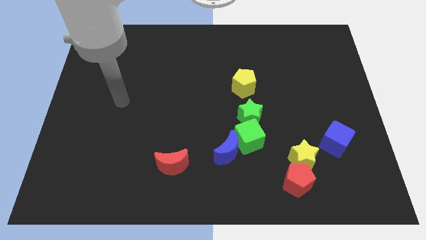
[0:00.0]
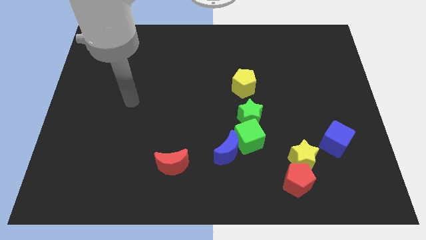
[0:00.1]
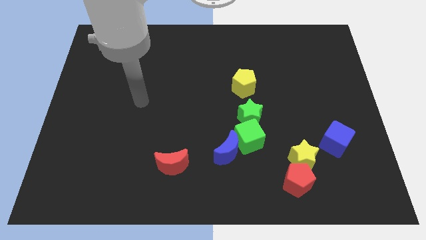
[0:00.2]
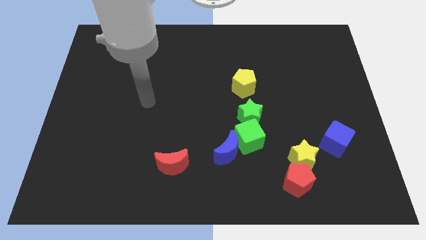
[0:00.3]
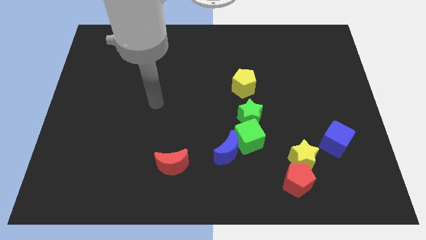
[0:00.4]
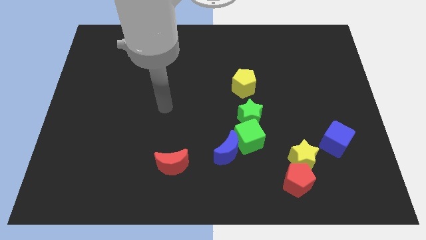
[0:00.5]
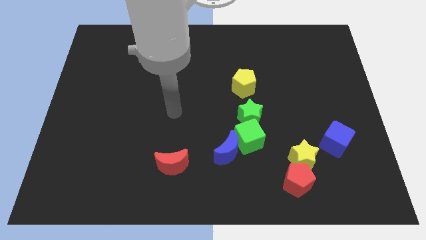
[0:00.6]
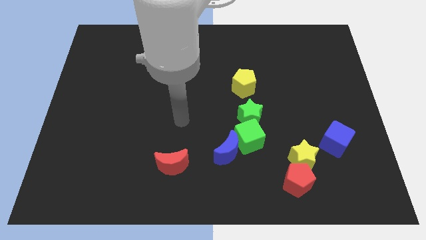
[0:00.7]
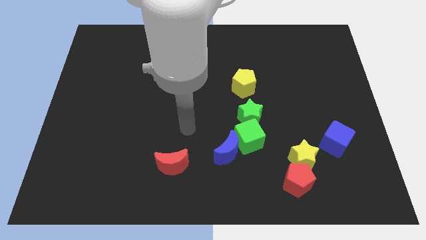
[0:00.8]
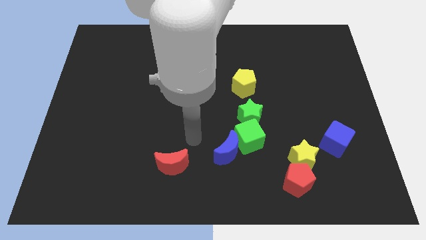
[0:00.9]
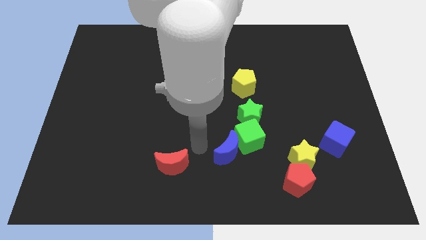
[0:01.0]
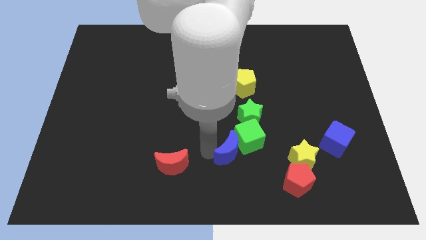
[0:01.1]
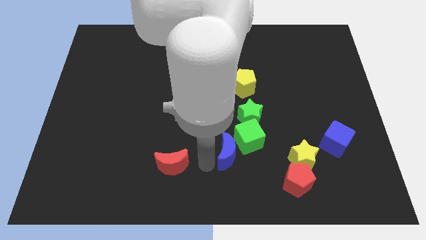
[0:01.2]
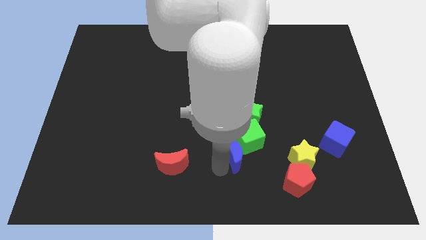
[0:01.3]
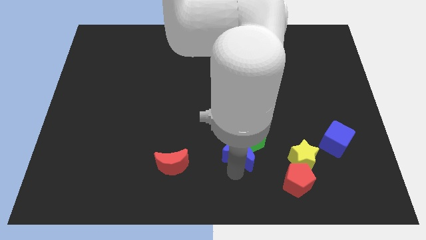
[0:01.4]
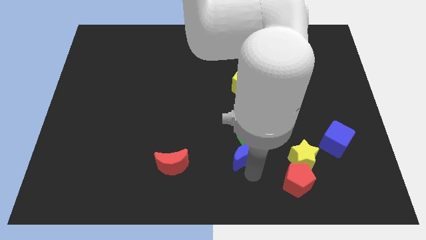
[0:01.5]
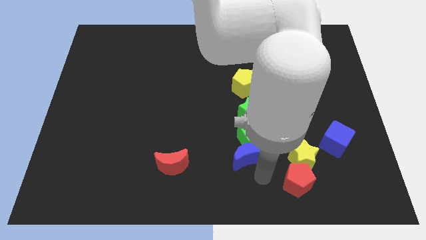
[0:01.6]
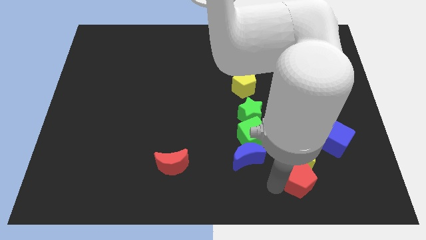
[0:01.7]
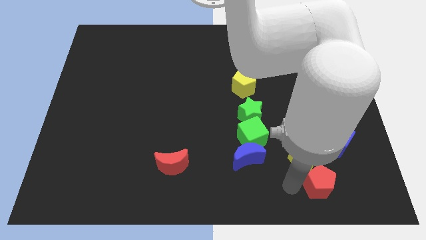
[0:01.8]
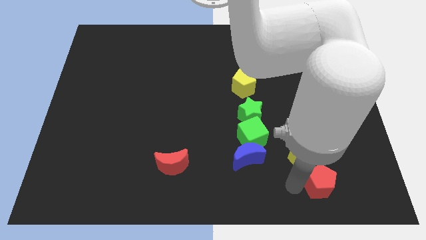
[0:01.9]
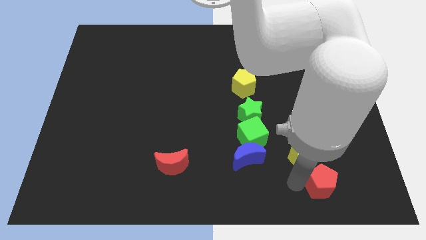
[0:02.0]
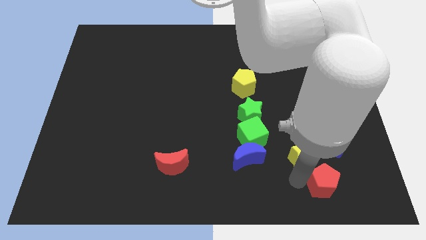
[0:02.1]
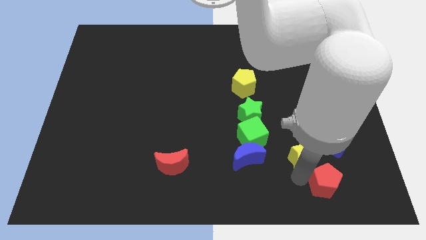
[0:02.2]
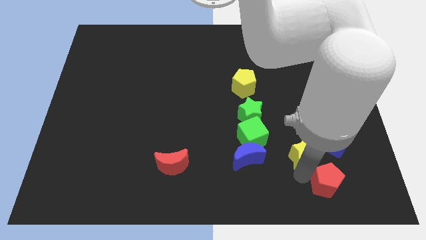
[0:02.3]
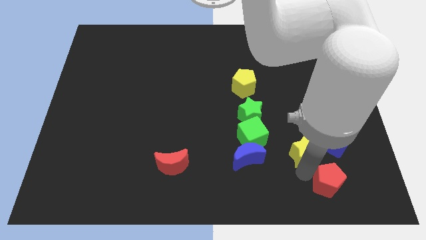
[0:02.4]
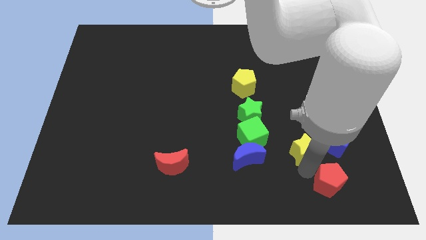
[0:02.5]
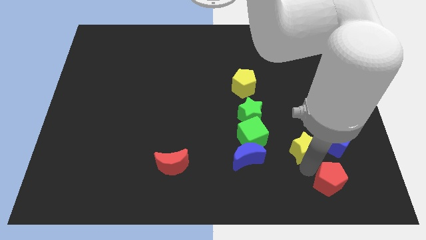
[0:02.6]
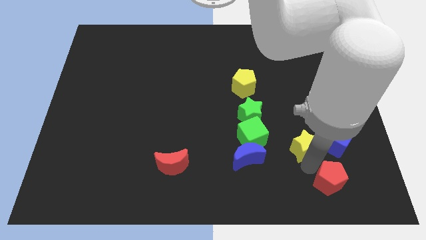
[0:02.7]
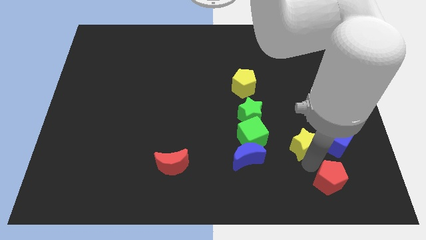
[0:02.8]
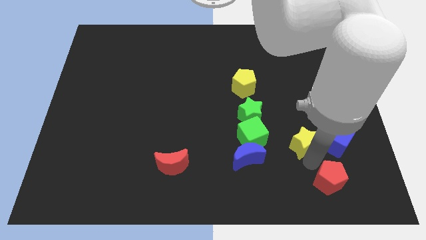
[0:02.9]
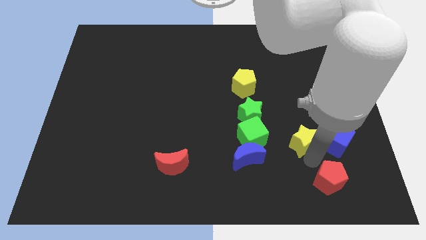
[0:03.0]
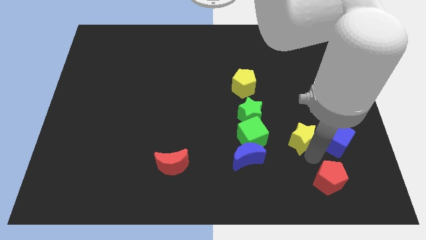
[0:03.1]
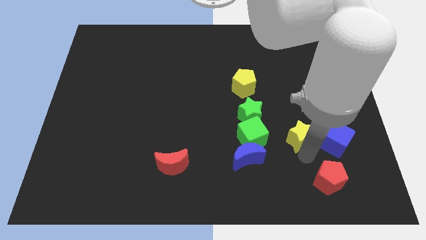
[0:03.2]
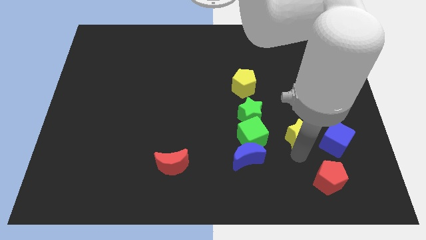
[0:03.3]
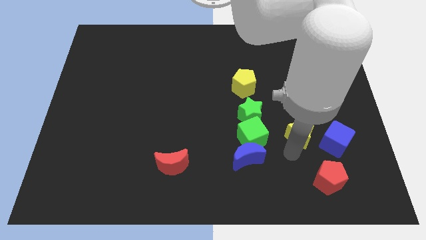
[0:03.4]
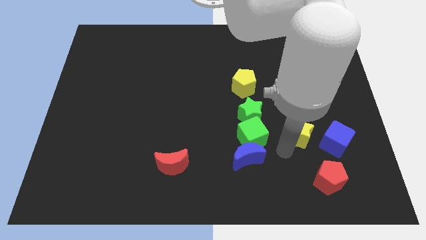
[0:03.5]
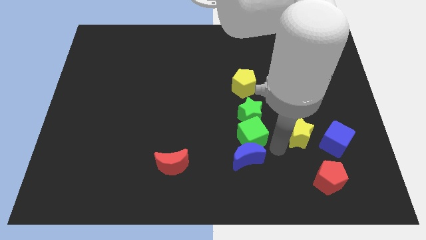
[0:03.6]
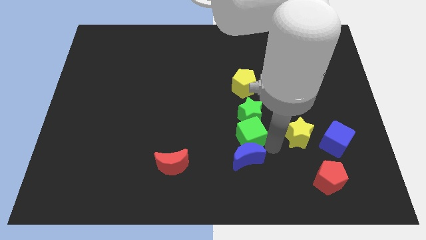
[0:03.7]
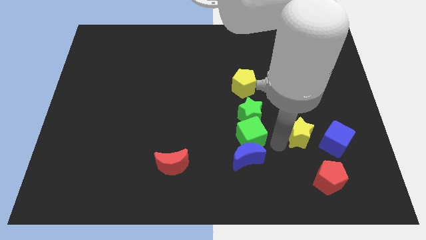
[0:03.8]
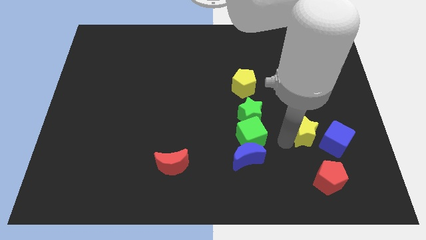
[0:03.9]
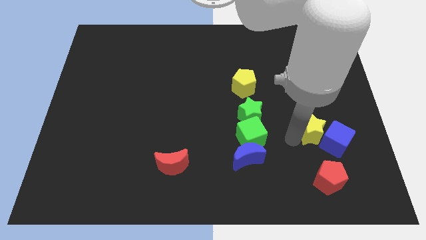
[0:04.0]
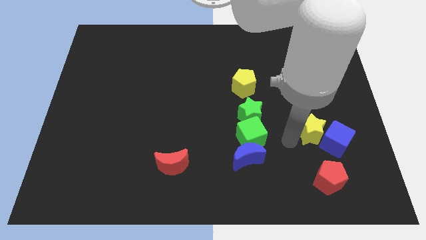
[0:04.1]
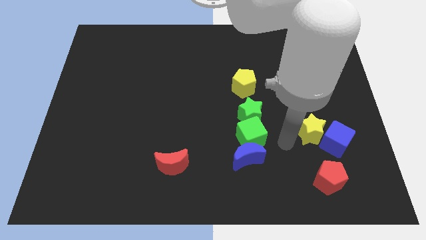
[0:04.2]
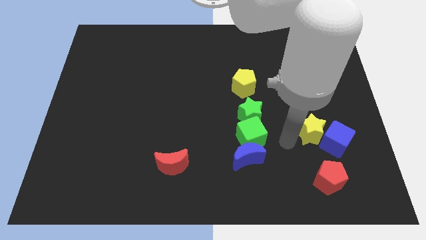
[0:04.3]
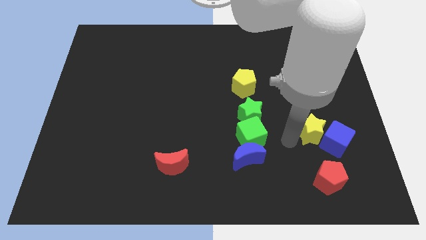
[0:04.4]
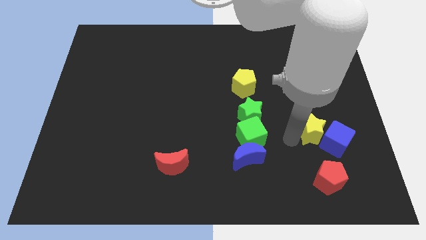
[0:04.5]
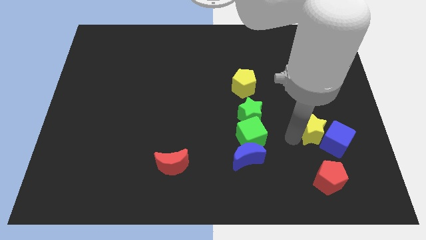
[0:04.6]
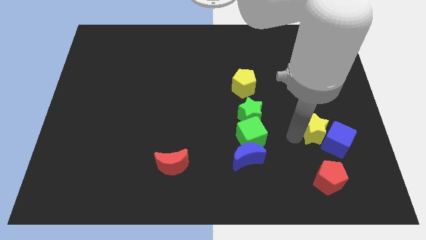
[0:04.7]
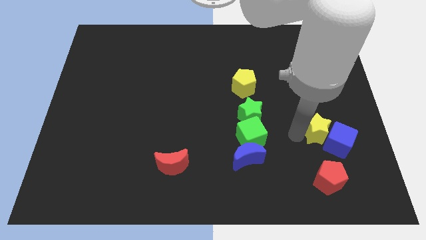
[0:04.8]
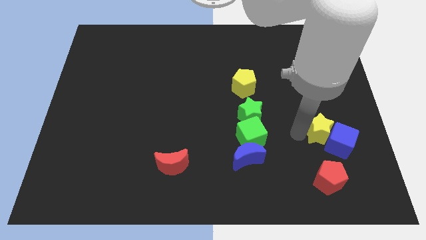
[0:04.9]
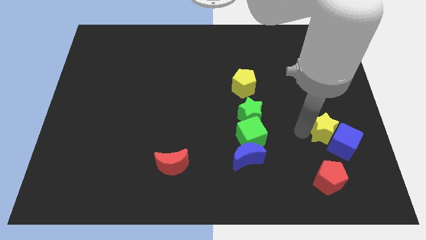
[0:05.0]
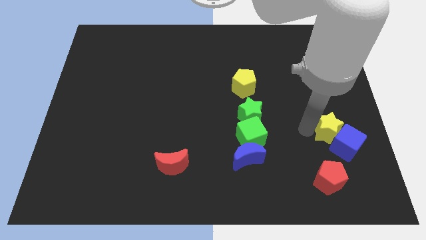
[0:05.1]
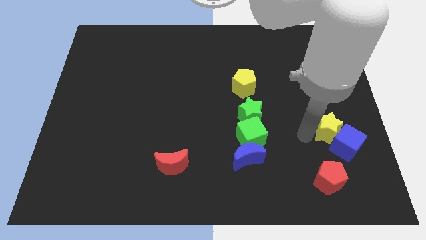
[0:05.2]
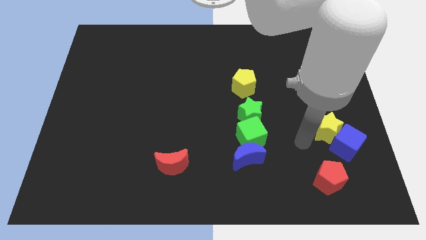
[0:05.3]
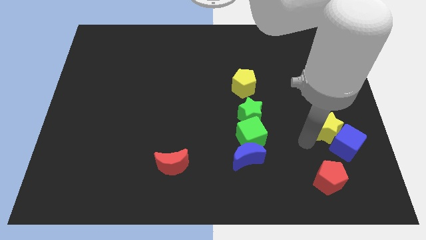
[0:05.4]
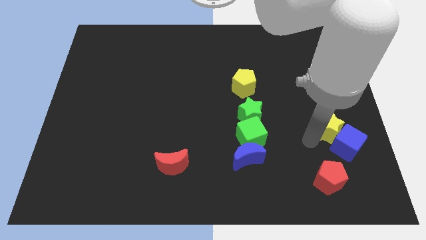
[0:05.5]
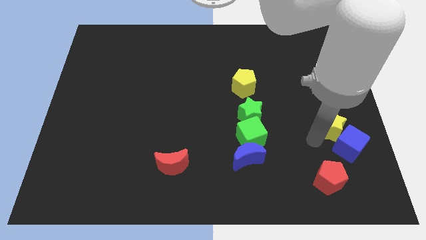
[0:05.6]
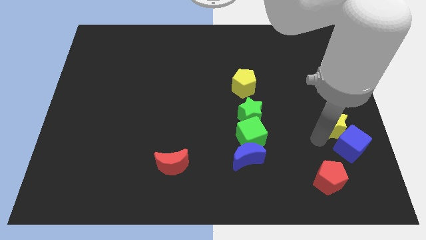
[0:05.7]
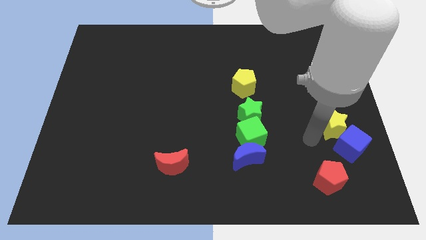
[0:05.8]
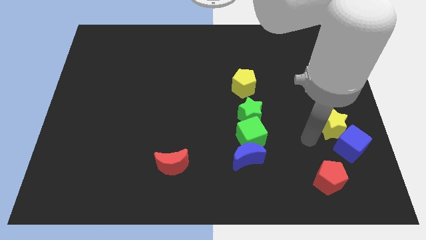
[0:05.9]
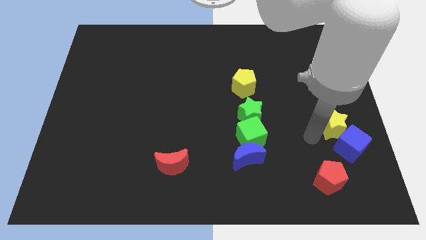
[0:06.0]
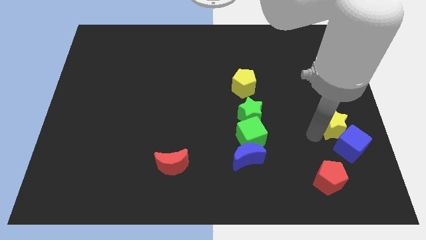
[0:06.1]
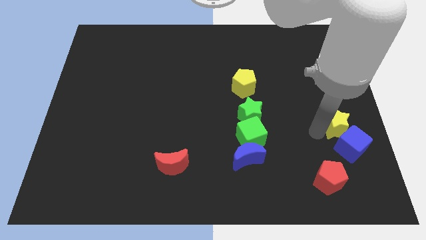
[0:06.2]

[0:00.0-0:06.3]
move the yellow star to the center right
